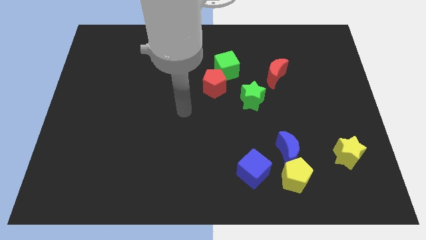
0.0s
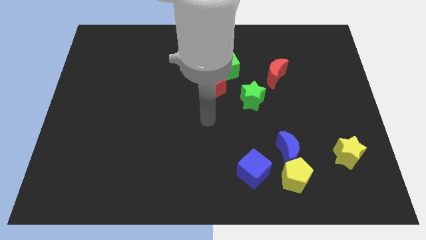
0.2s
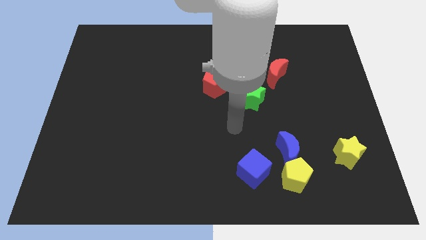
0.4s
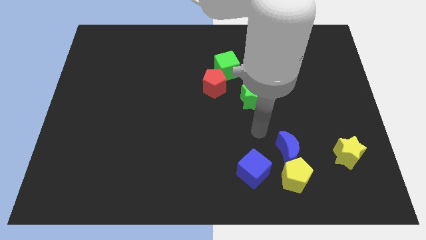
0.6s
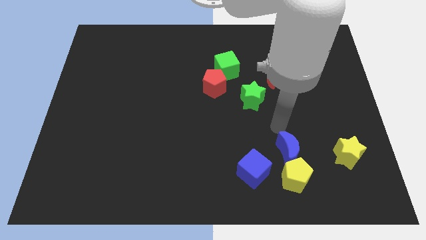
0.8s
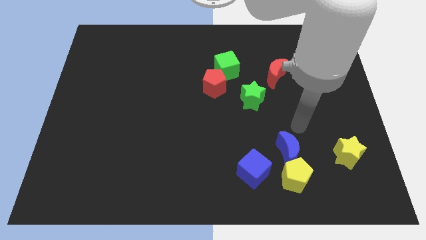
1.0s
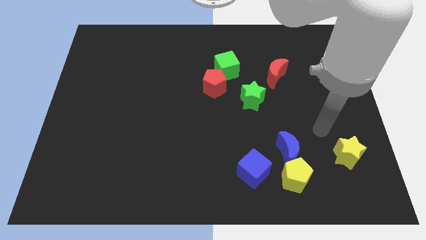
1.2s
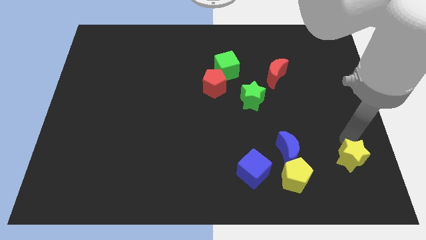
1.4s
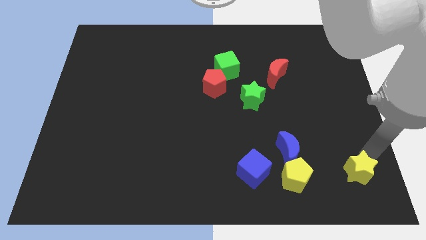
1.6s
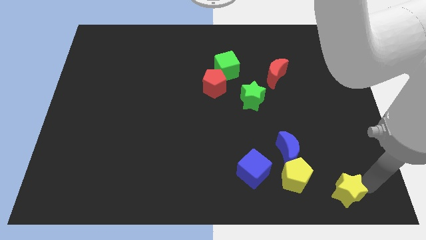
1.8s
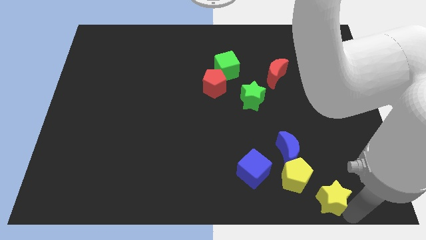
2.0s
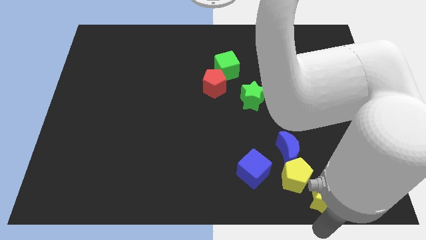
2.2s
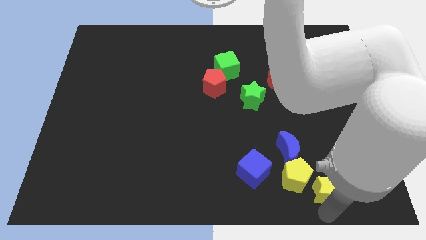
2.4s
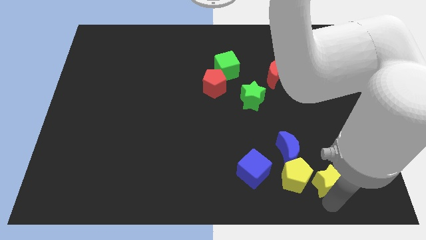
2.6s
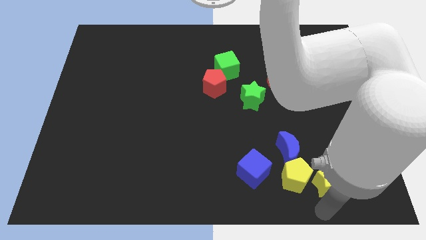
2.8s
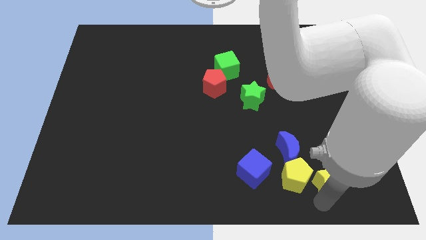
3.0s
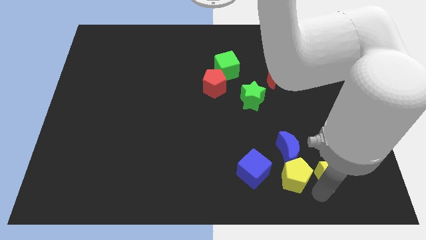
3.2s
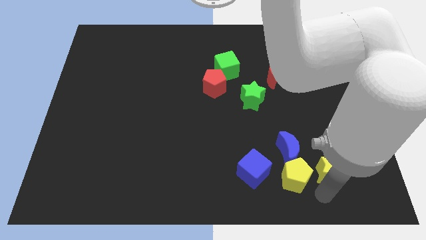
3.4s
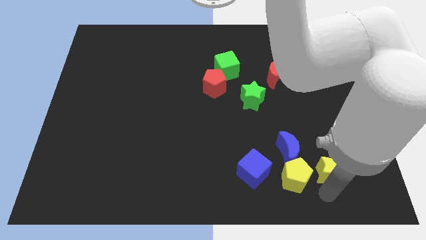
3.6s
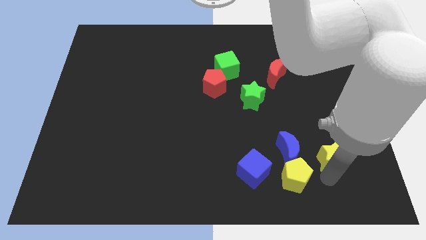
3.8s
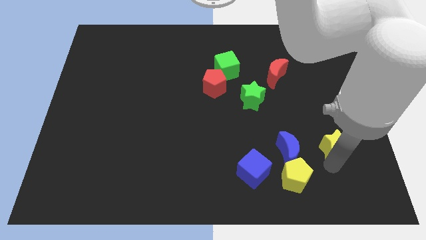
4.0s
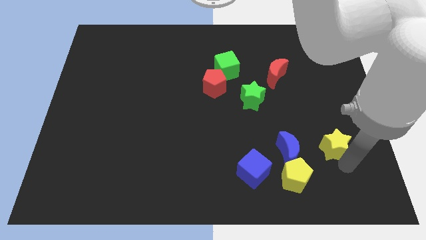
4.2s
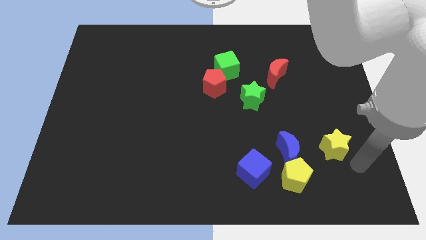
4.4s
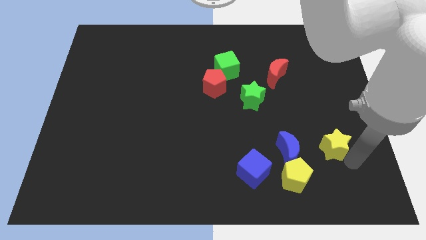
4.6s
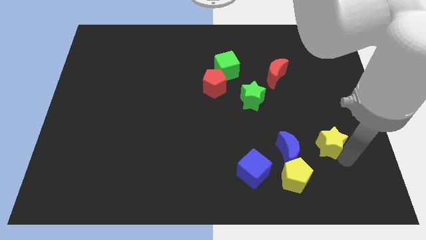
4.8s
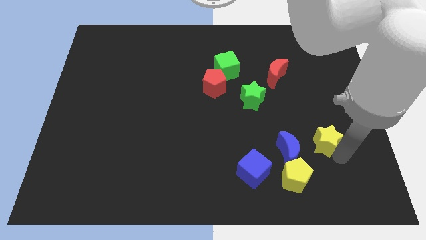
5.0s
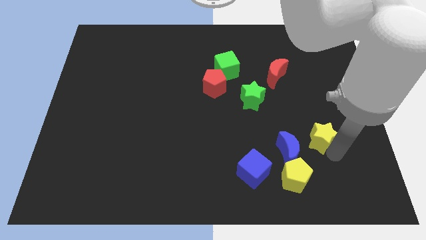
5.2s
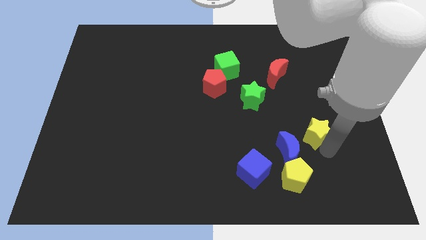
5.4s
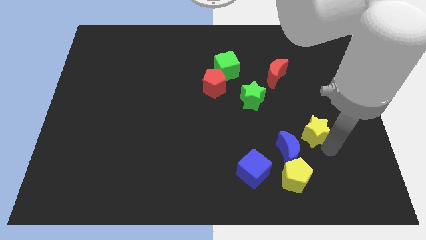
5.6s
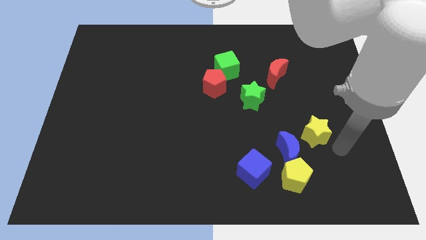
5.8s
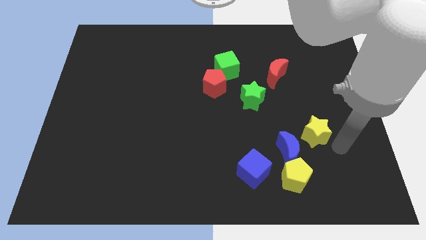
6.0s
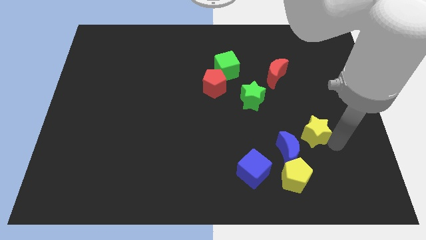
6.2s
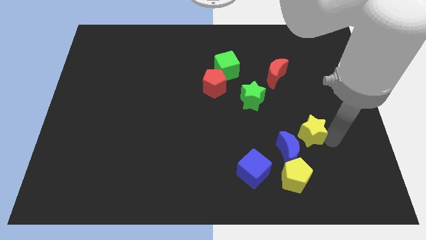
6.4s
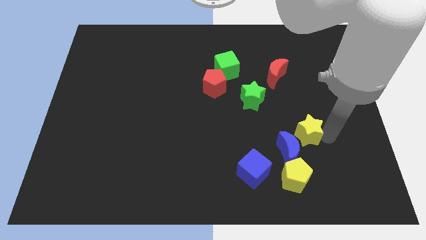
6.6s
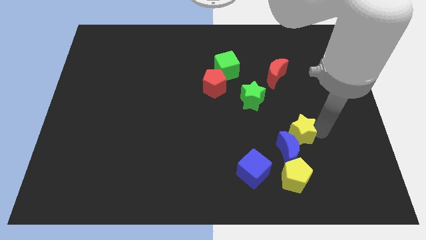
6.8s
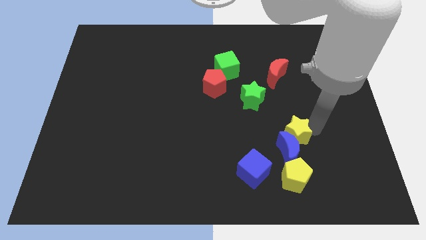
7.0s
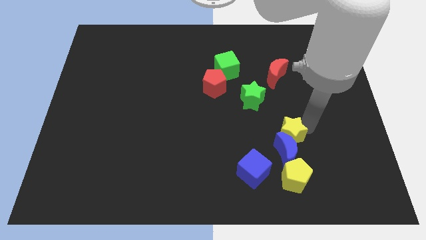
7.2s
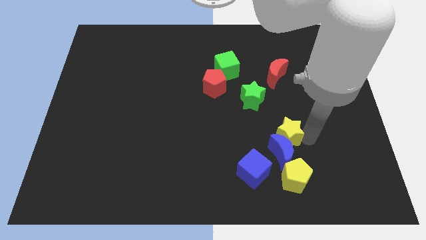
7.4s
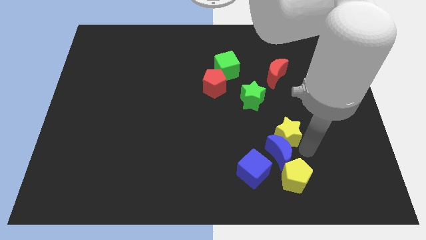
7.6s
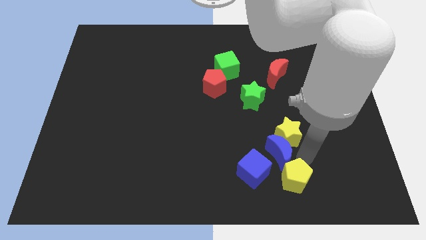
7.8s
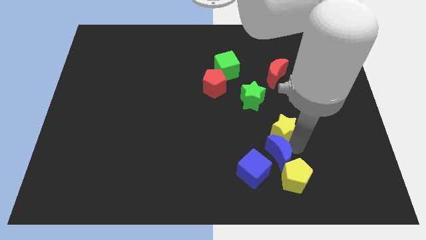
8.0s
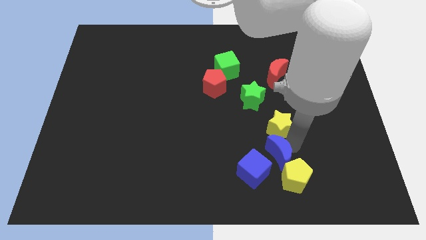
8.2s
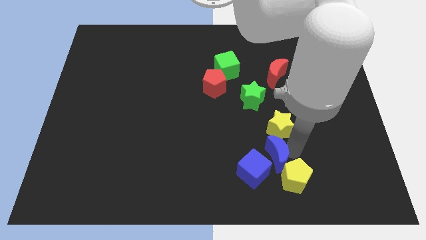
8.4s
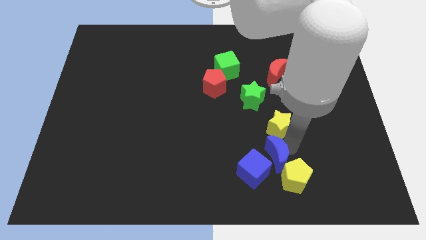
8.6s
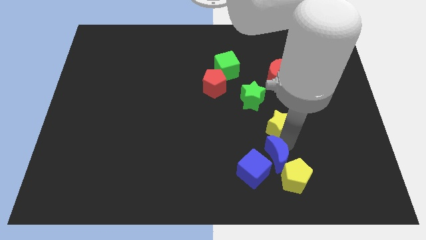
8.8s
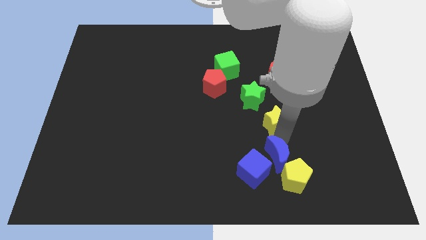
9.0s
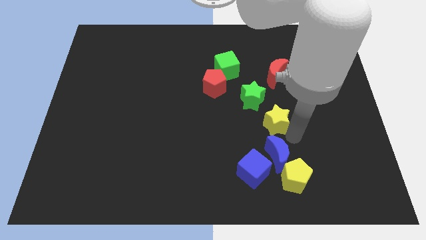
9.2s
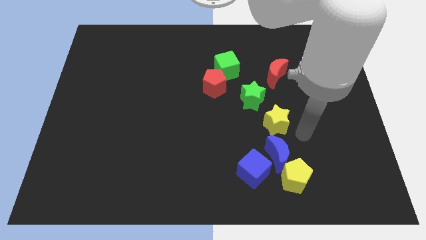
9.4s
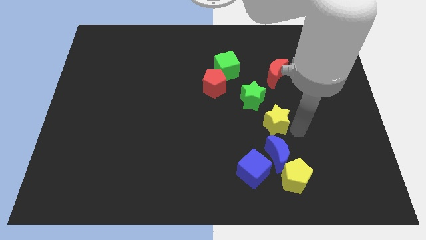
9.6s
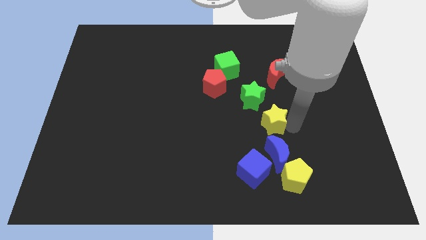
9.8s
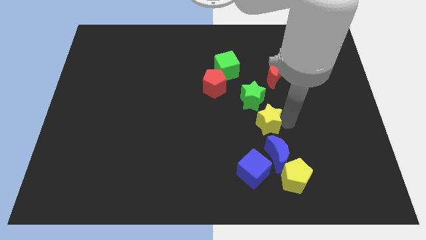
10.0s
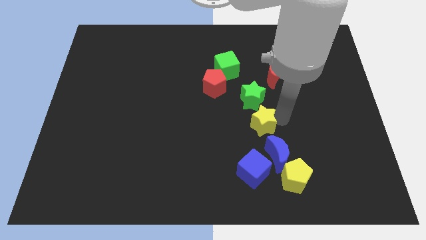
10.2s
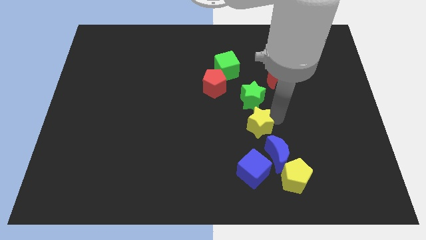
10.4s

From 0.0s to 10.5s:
slide the yellow star to the center of the board

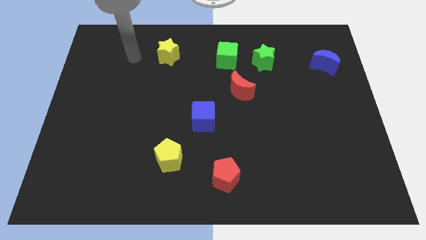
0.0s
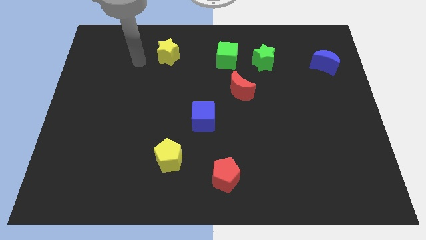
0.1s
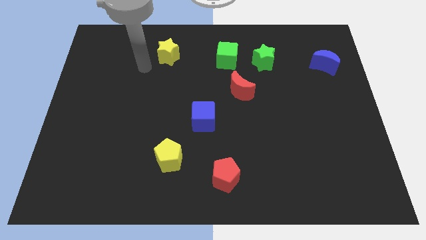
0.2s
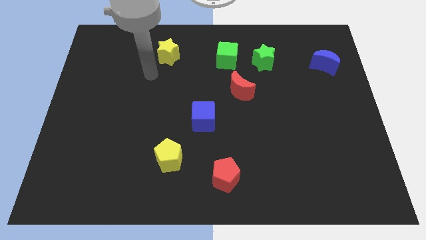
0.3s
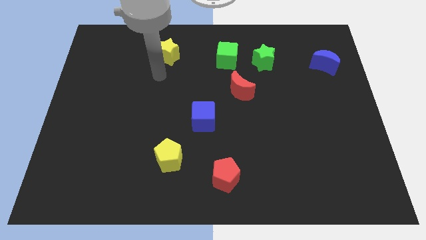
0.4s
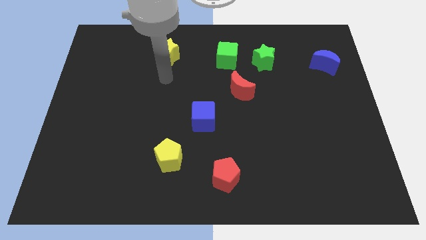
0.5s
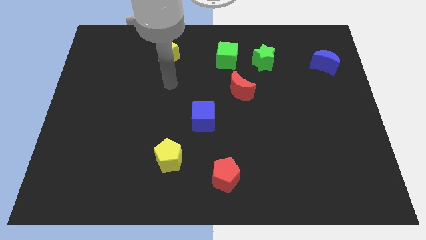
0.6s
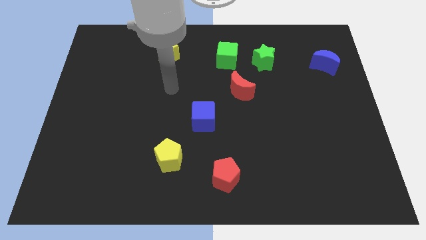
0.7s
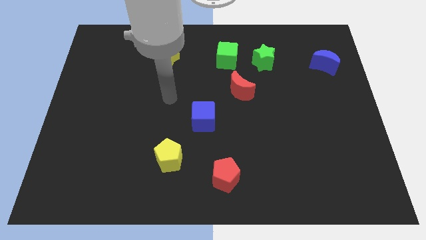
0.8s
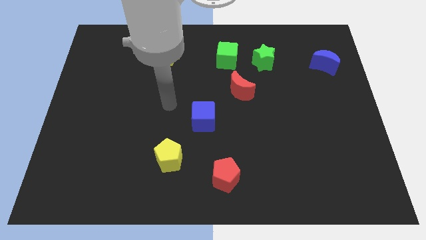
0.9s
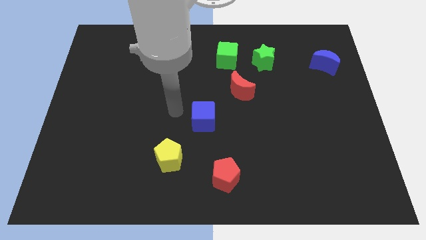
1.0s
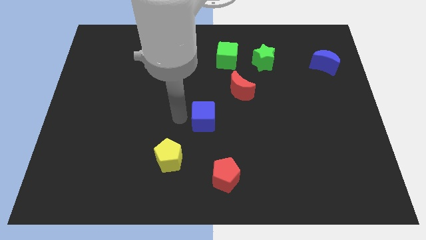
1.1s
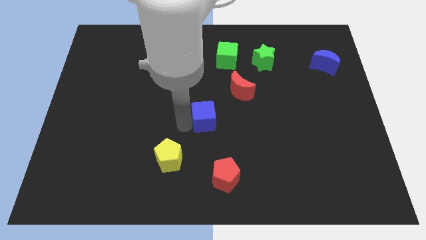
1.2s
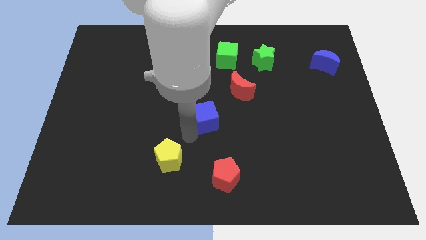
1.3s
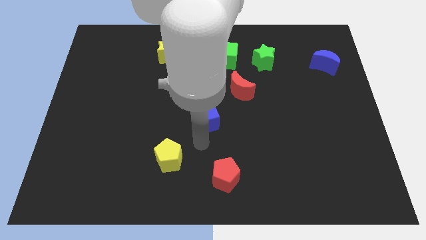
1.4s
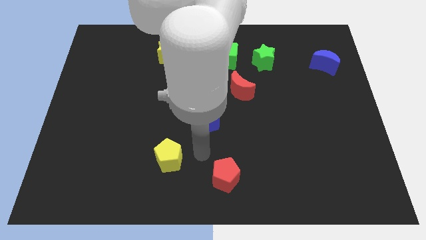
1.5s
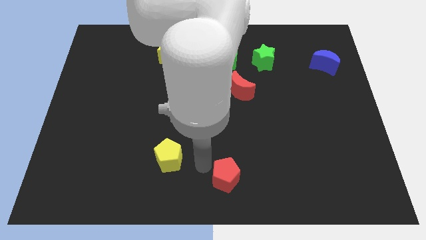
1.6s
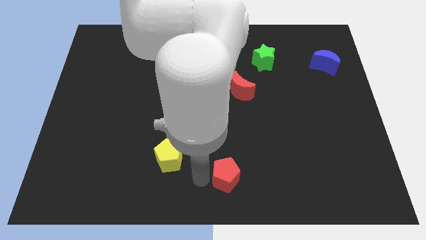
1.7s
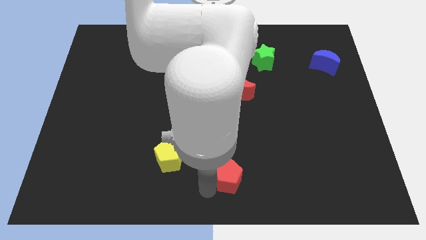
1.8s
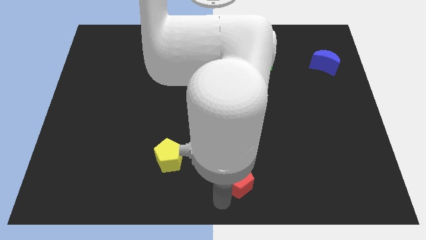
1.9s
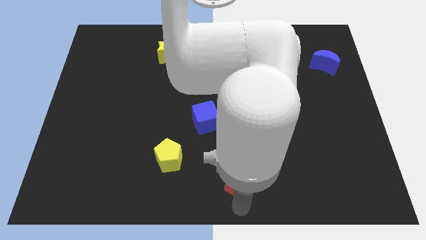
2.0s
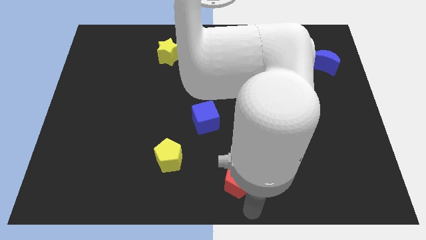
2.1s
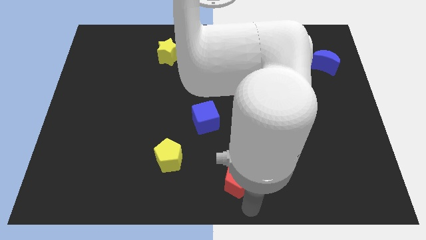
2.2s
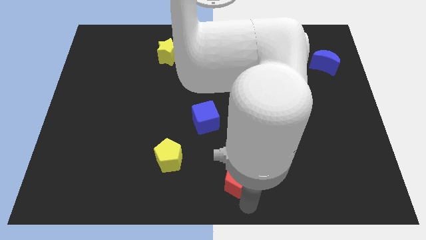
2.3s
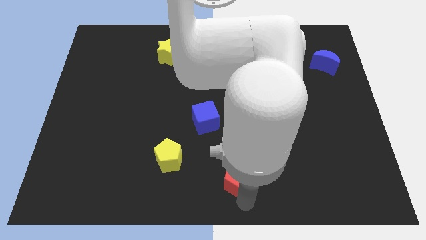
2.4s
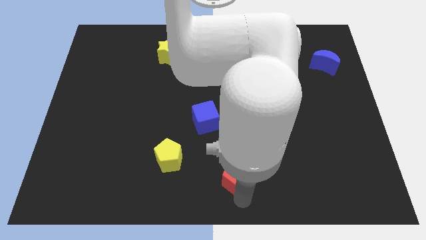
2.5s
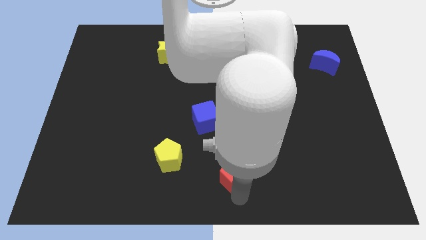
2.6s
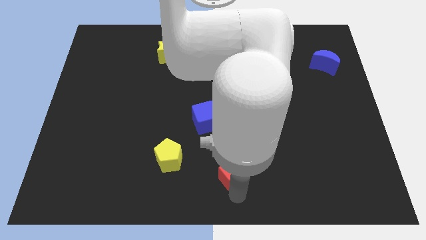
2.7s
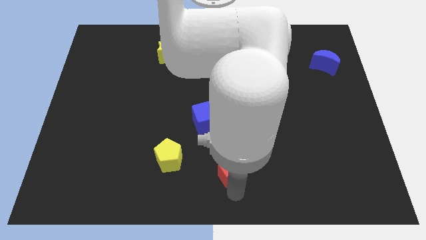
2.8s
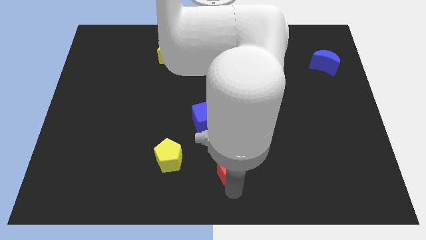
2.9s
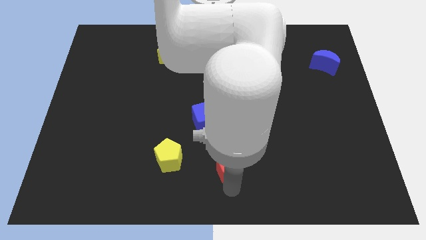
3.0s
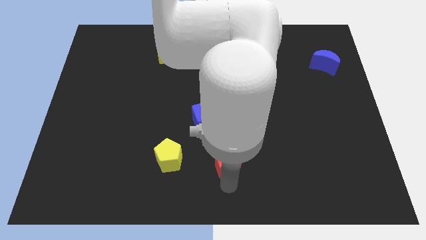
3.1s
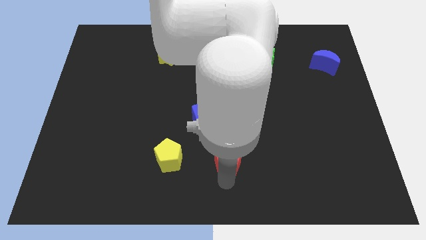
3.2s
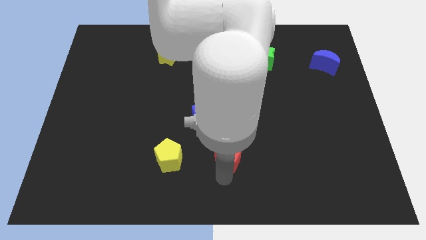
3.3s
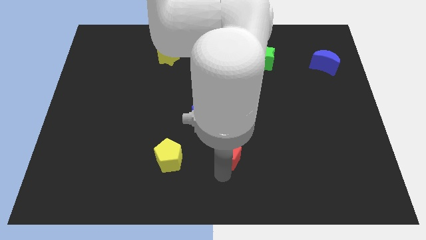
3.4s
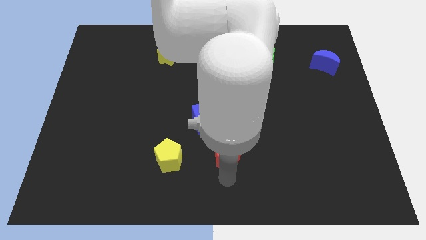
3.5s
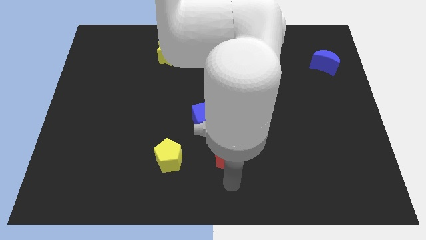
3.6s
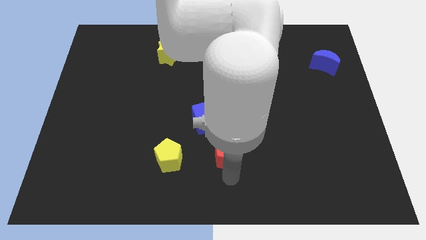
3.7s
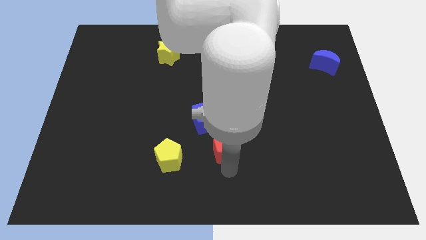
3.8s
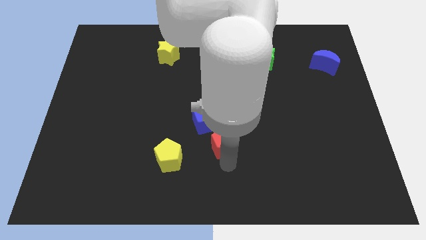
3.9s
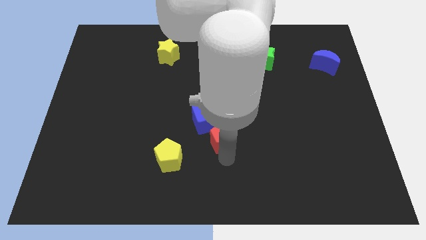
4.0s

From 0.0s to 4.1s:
slide the red pentagon to the middle
